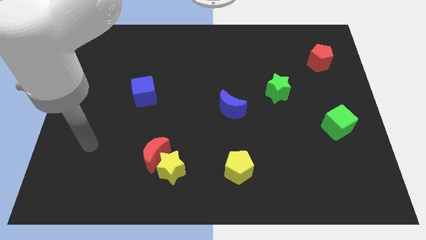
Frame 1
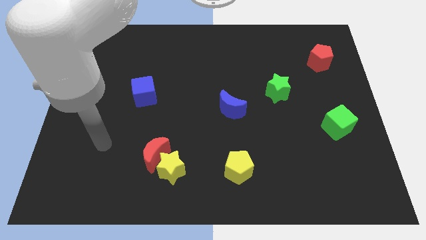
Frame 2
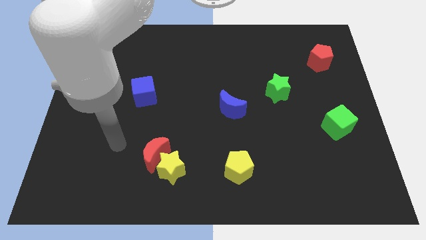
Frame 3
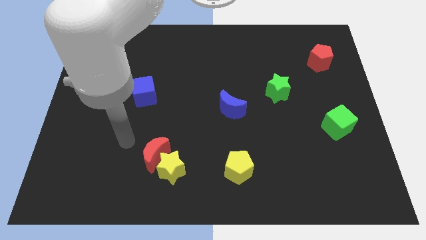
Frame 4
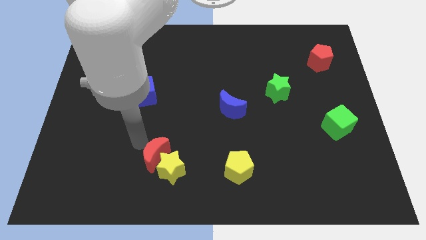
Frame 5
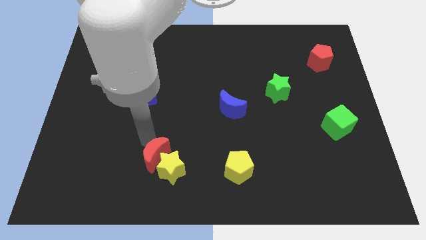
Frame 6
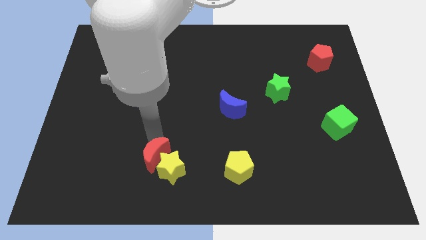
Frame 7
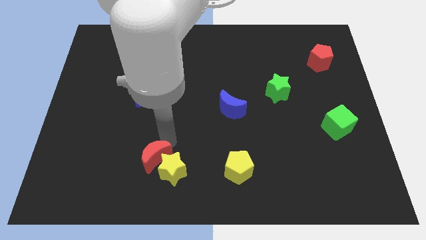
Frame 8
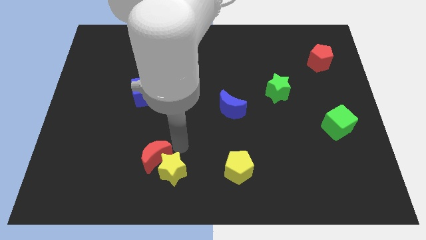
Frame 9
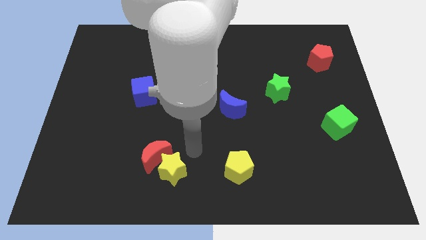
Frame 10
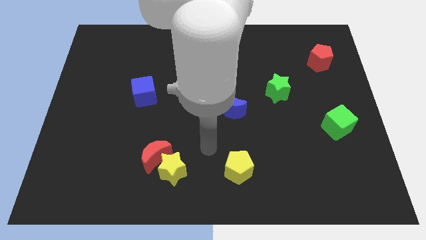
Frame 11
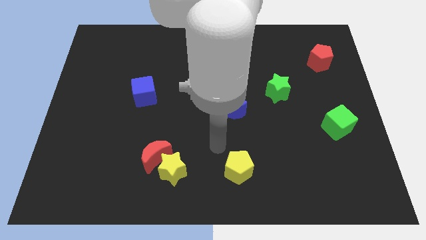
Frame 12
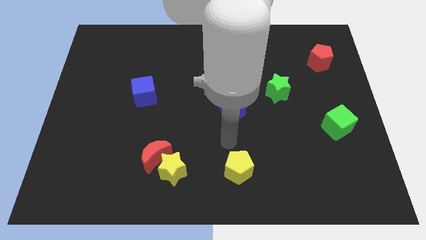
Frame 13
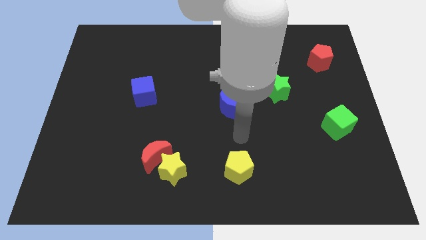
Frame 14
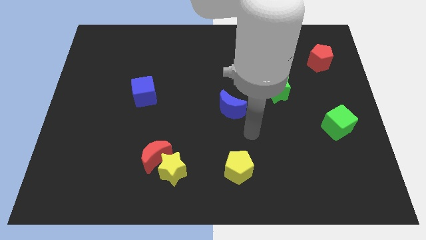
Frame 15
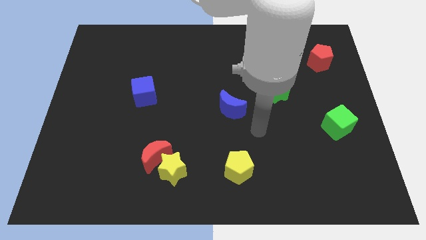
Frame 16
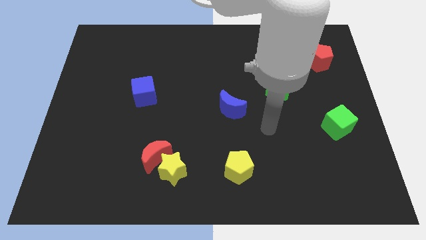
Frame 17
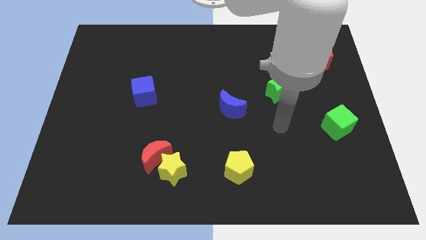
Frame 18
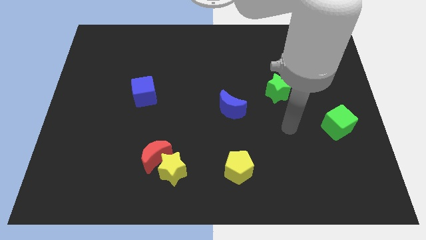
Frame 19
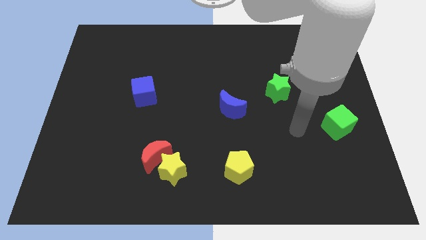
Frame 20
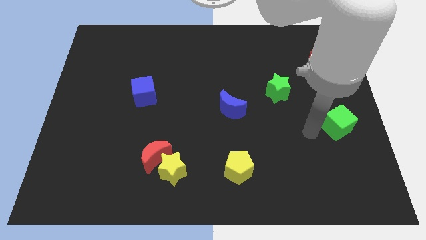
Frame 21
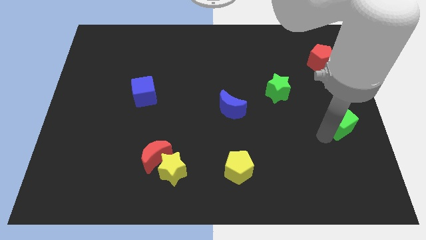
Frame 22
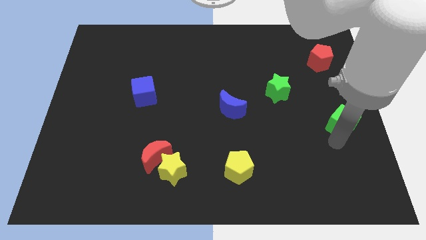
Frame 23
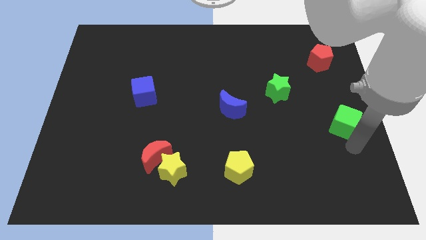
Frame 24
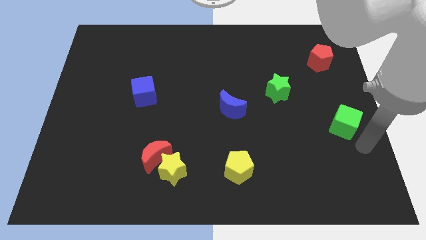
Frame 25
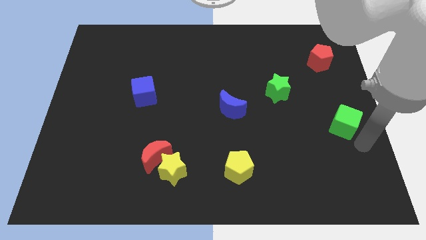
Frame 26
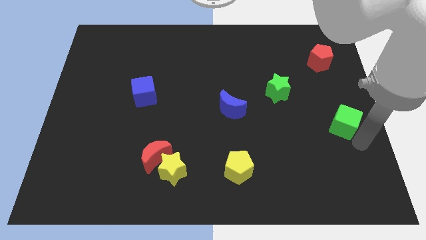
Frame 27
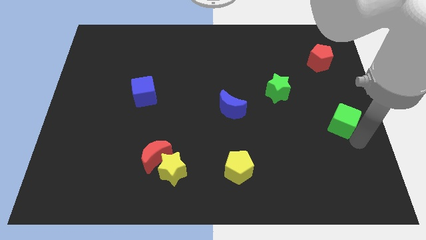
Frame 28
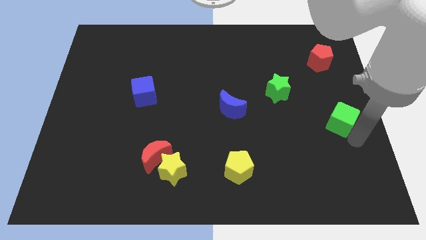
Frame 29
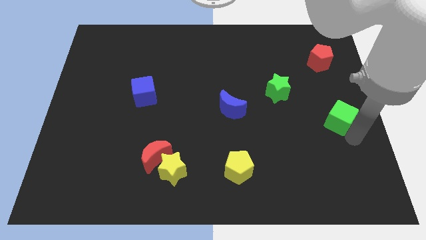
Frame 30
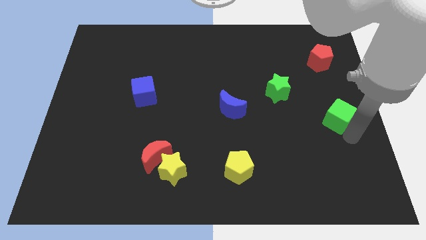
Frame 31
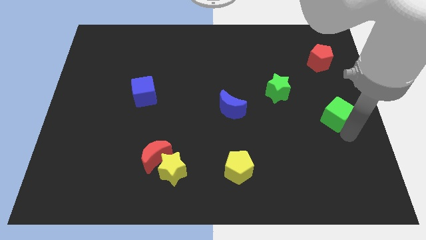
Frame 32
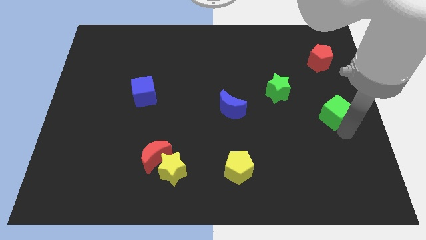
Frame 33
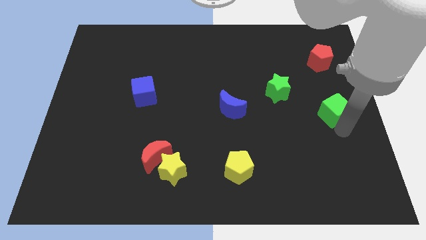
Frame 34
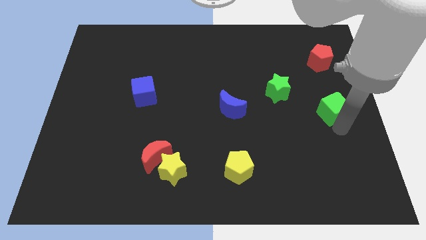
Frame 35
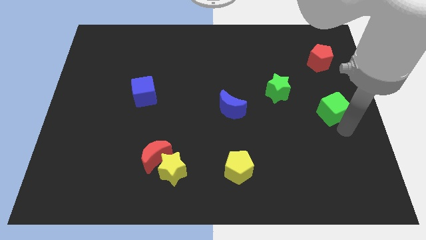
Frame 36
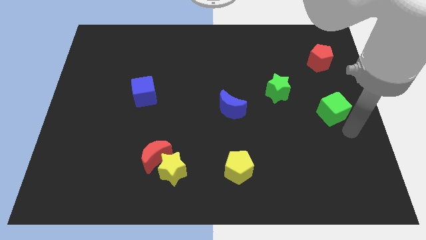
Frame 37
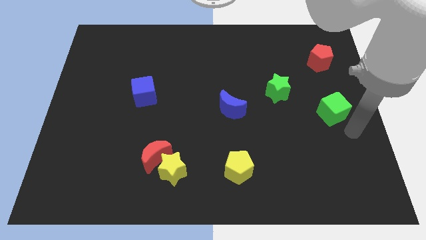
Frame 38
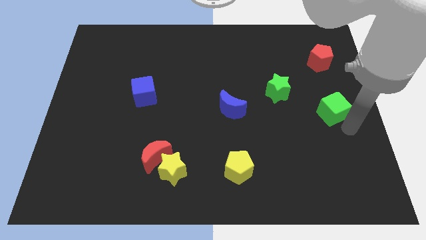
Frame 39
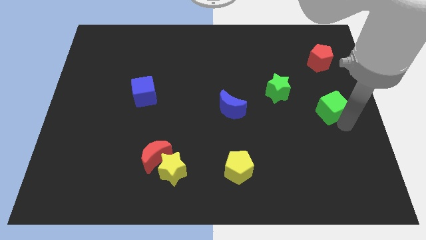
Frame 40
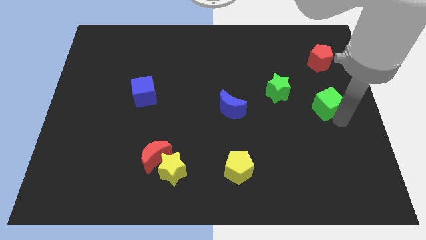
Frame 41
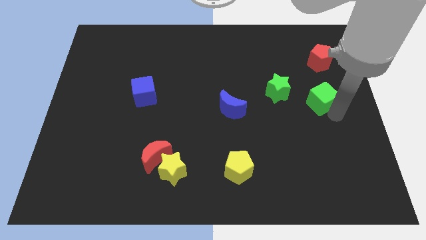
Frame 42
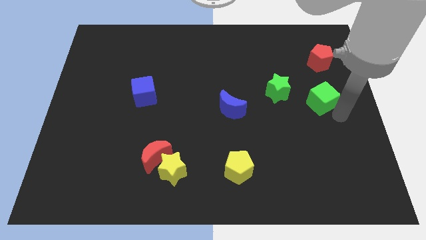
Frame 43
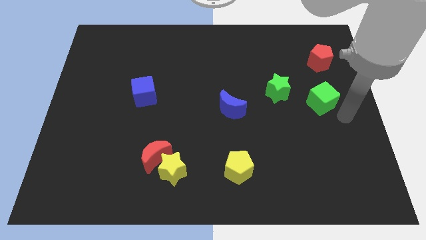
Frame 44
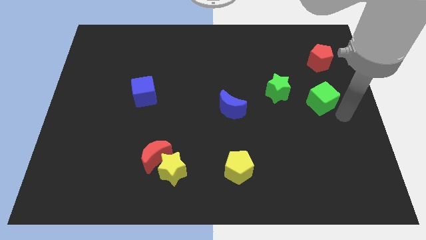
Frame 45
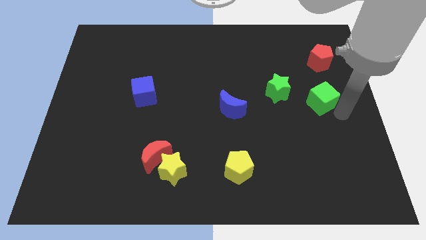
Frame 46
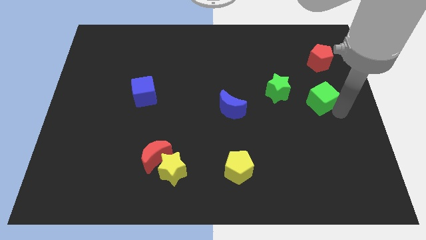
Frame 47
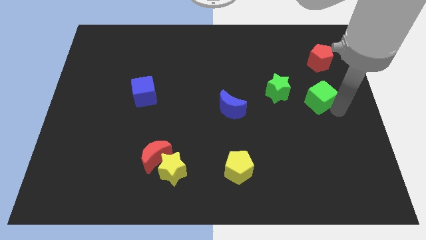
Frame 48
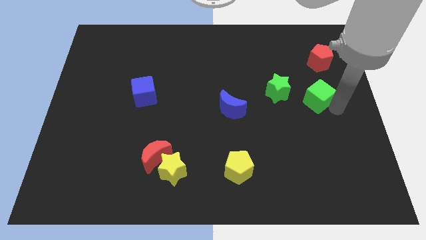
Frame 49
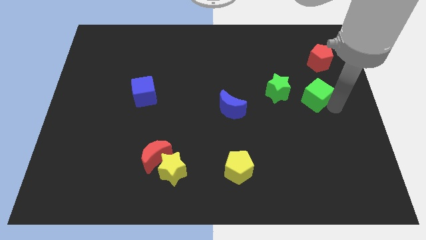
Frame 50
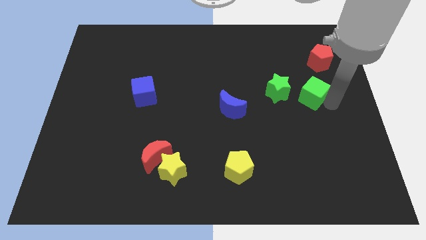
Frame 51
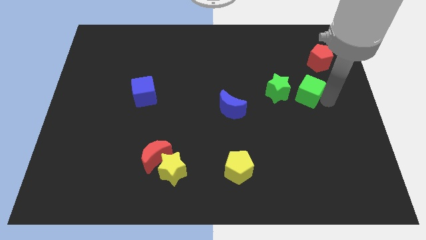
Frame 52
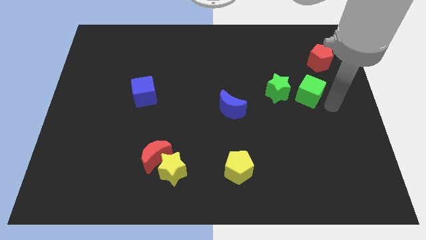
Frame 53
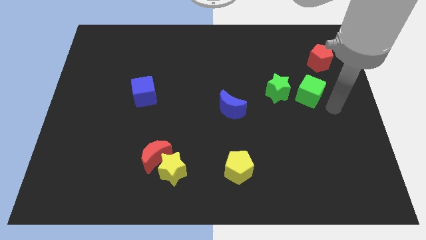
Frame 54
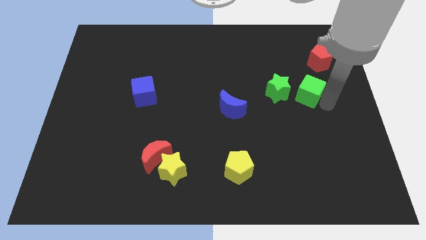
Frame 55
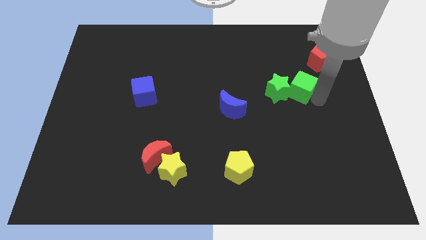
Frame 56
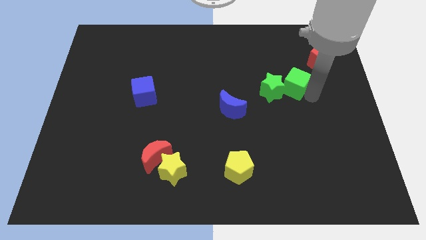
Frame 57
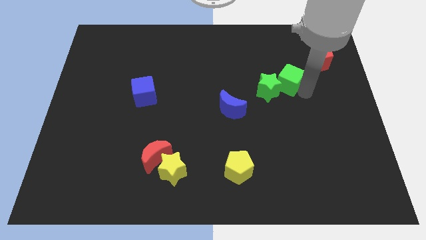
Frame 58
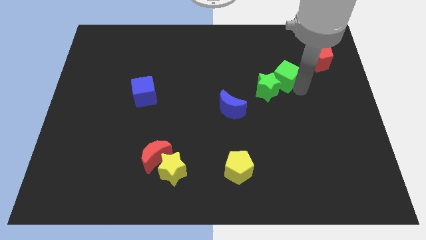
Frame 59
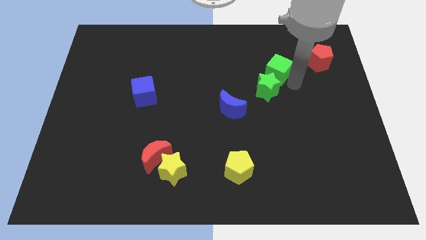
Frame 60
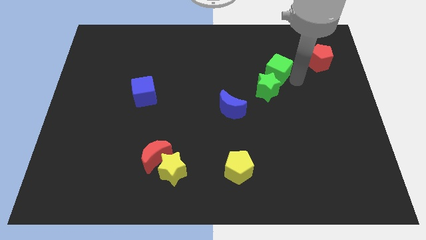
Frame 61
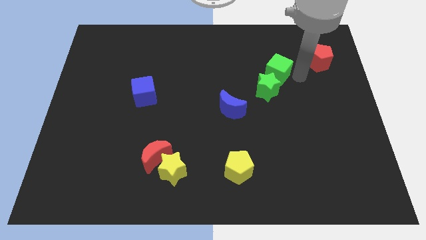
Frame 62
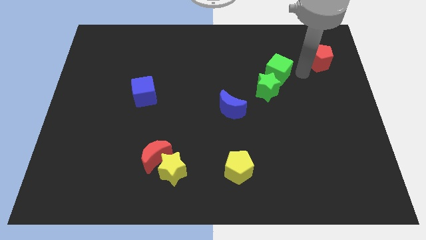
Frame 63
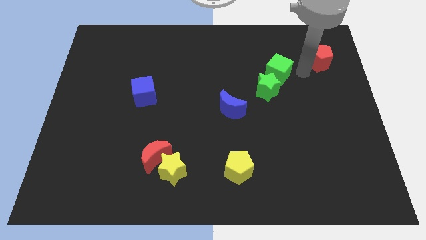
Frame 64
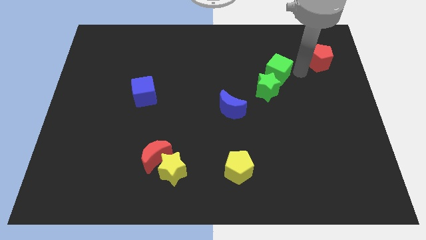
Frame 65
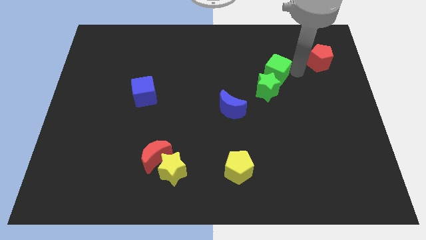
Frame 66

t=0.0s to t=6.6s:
push the green cube up and then left

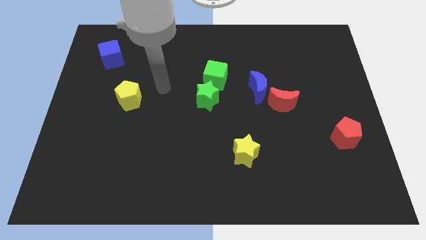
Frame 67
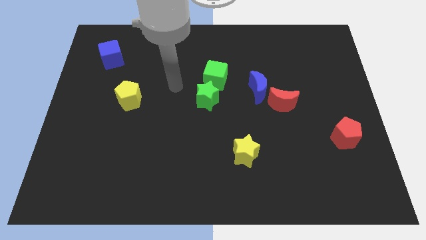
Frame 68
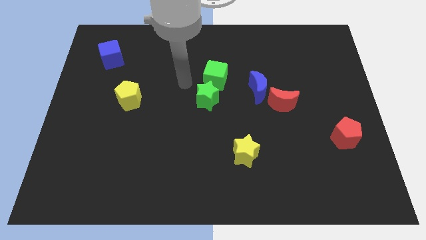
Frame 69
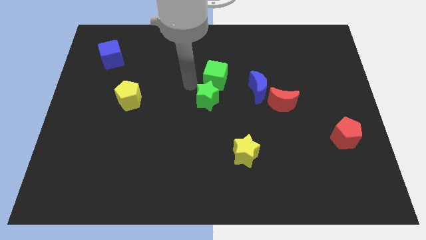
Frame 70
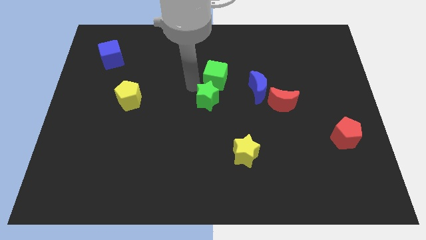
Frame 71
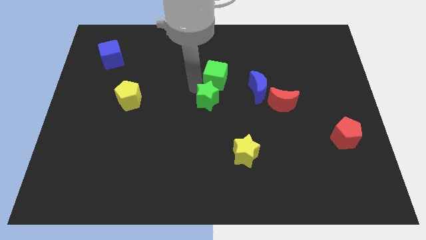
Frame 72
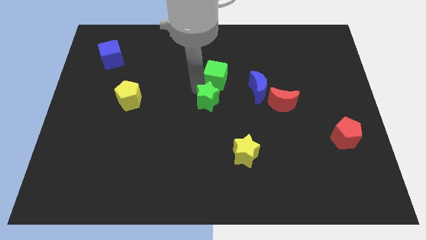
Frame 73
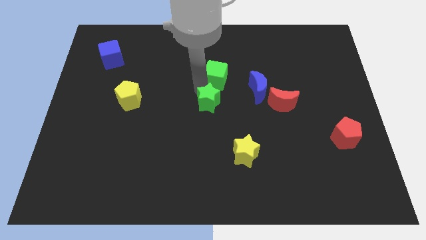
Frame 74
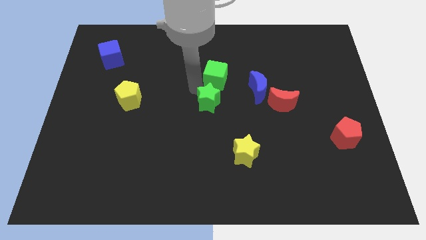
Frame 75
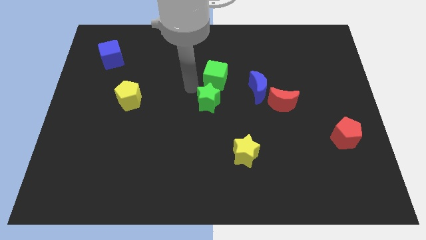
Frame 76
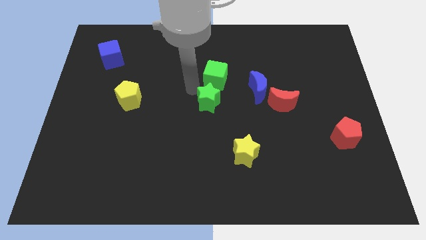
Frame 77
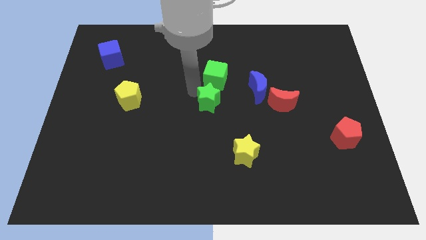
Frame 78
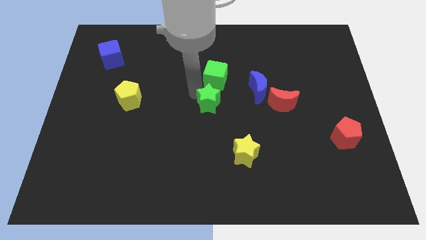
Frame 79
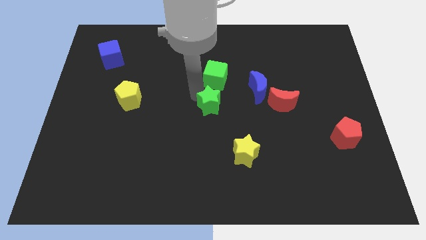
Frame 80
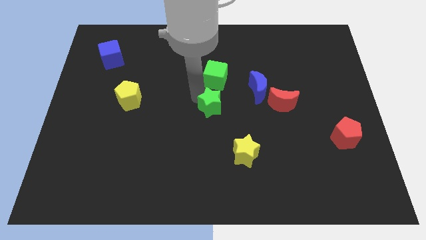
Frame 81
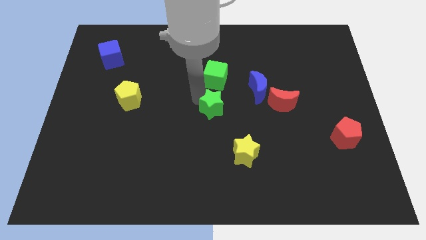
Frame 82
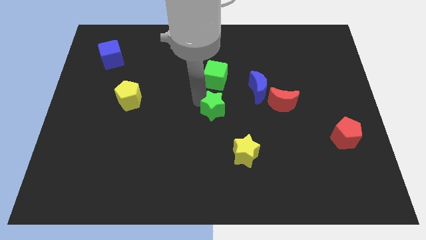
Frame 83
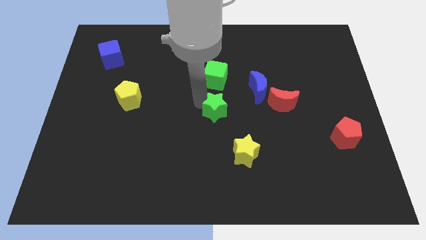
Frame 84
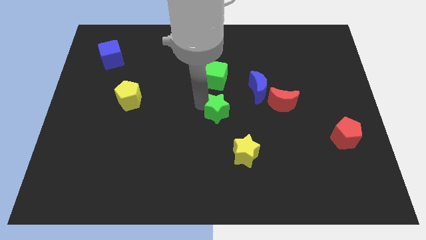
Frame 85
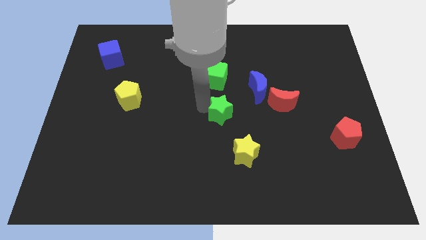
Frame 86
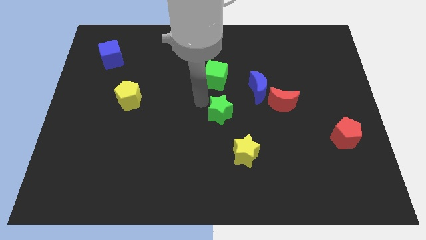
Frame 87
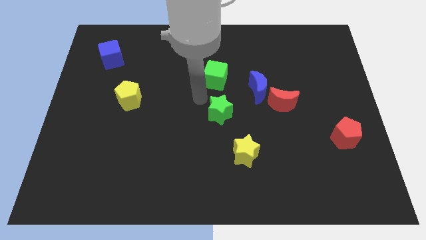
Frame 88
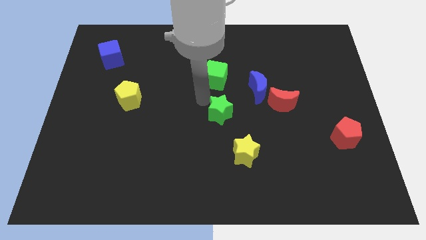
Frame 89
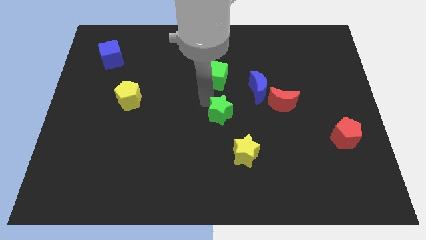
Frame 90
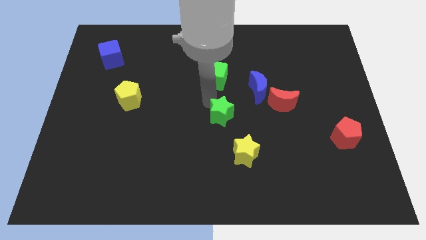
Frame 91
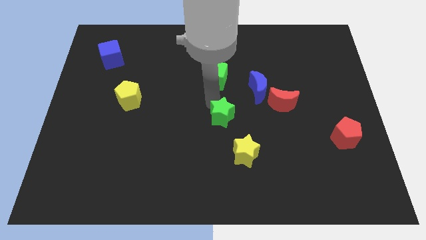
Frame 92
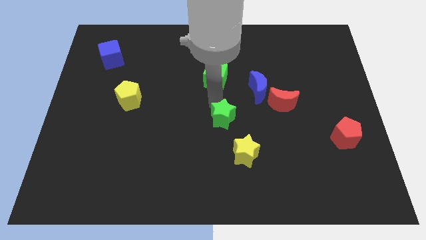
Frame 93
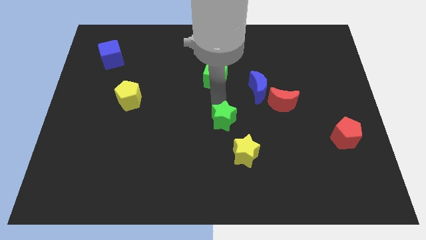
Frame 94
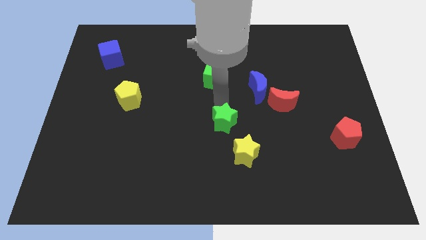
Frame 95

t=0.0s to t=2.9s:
slightly push the green star downwards and right
